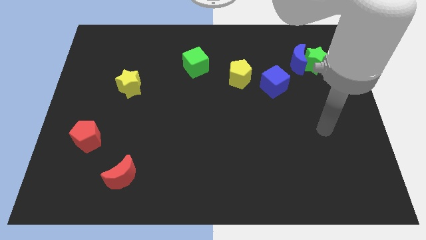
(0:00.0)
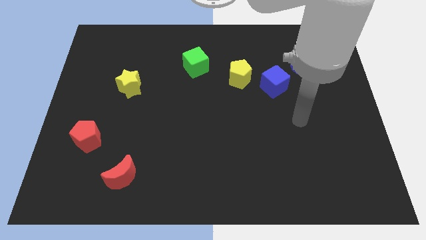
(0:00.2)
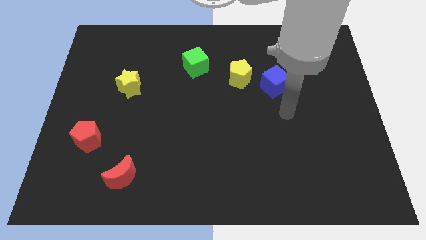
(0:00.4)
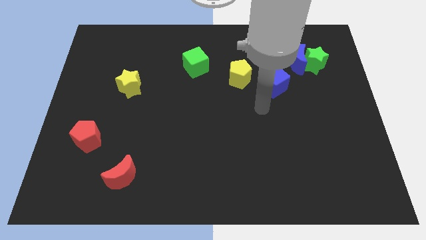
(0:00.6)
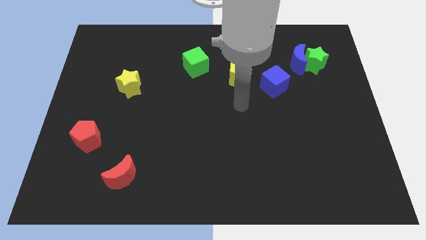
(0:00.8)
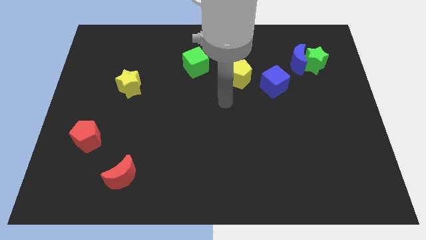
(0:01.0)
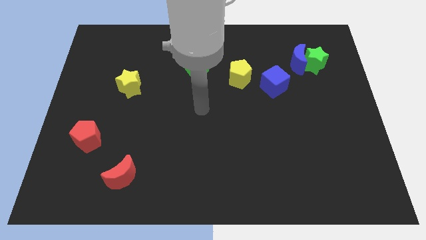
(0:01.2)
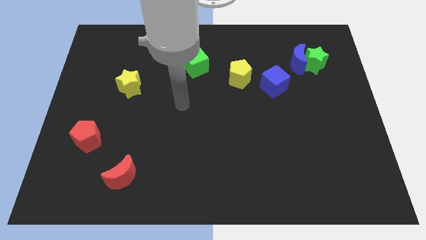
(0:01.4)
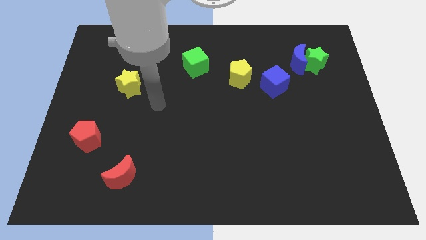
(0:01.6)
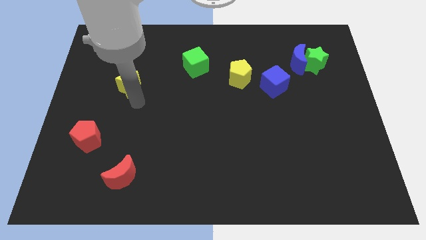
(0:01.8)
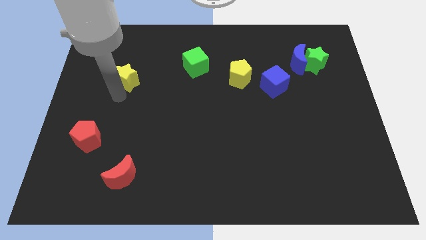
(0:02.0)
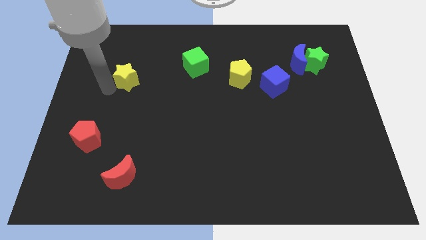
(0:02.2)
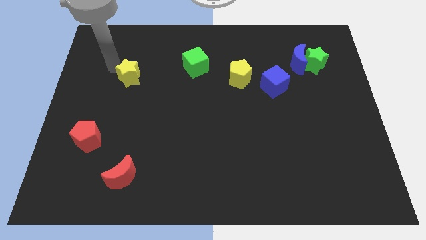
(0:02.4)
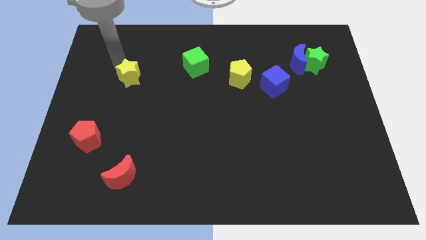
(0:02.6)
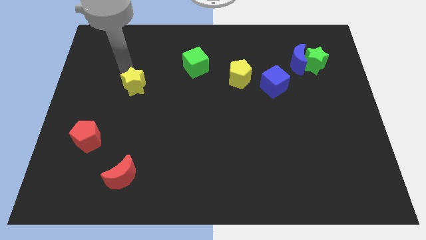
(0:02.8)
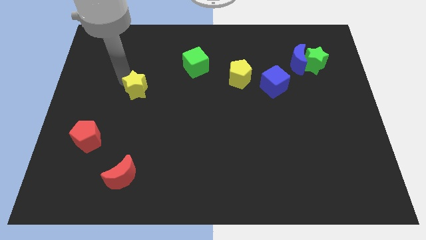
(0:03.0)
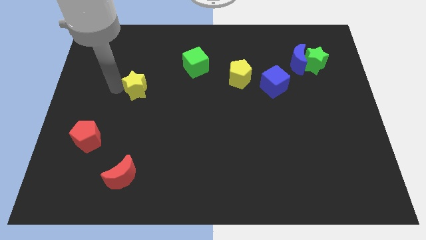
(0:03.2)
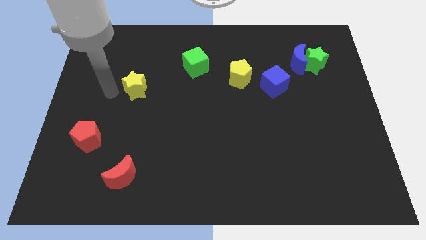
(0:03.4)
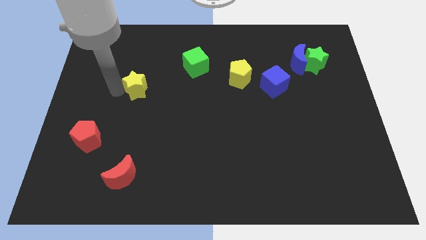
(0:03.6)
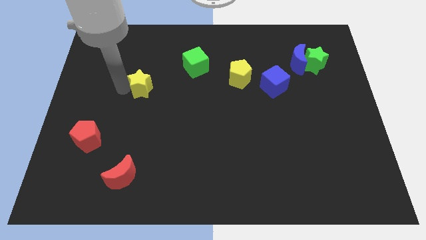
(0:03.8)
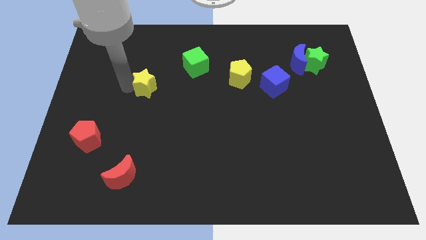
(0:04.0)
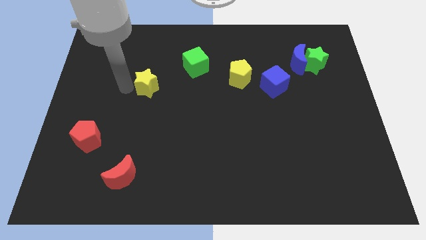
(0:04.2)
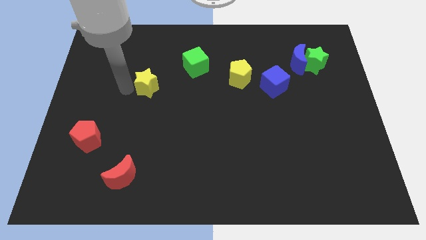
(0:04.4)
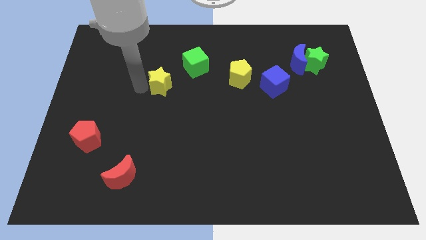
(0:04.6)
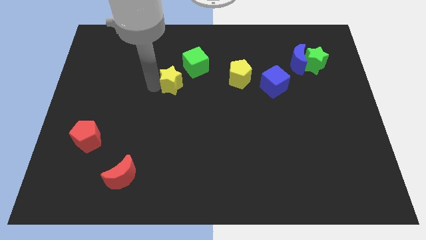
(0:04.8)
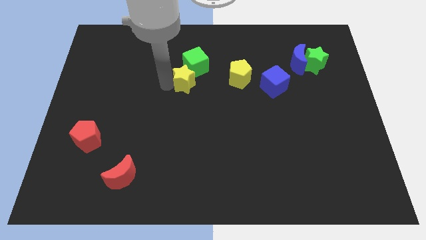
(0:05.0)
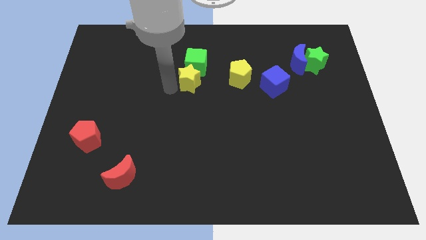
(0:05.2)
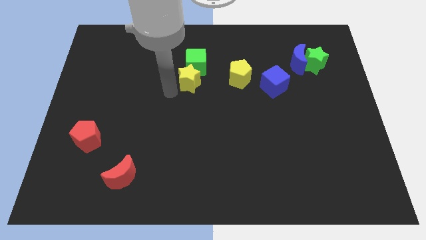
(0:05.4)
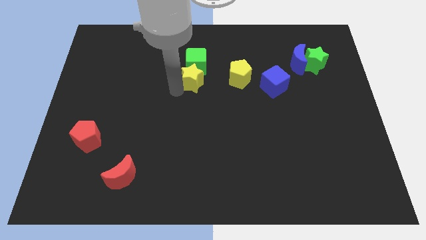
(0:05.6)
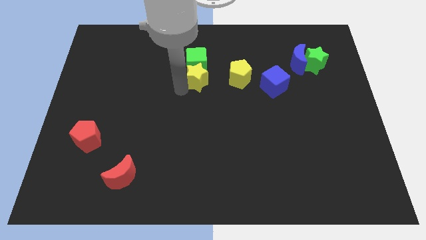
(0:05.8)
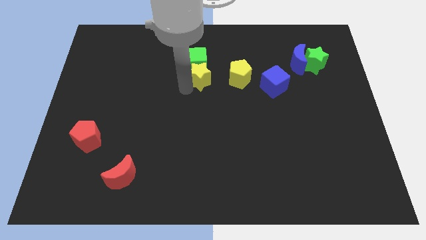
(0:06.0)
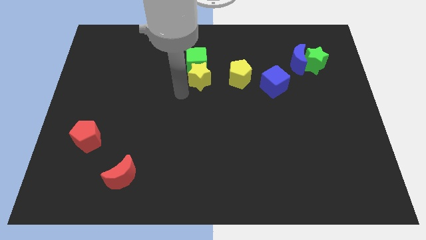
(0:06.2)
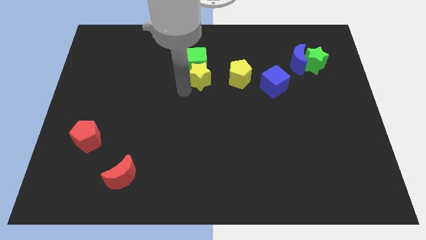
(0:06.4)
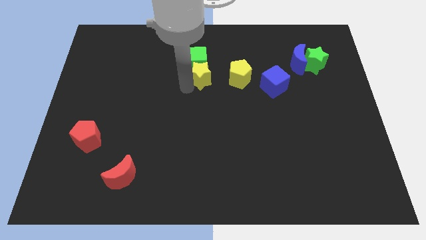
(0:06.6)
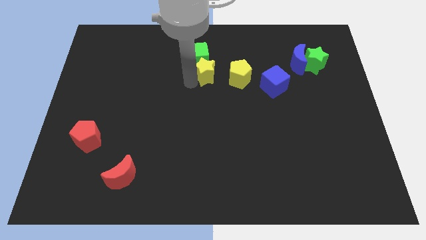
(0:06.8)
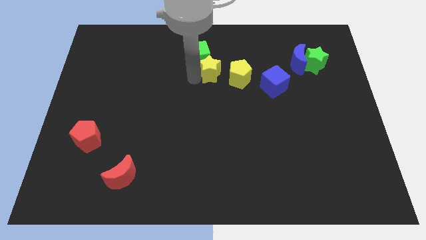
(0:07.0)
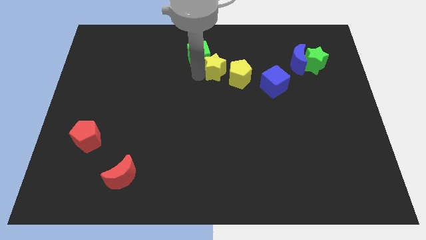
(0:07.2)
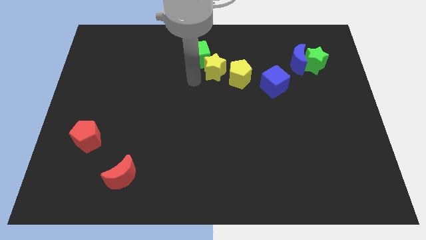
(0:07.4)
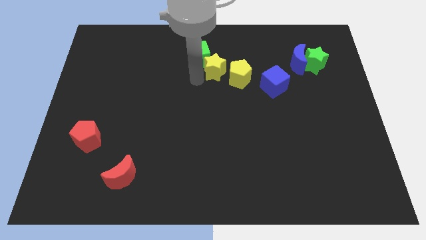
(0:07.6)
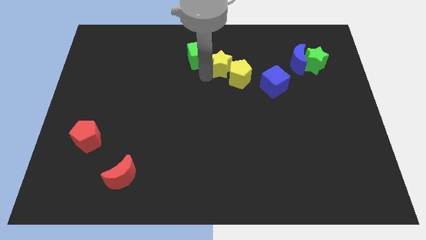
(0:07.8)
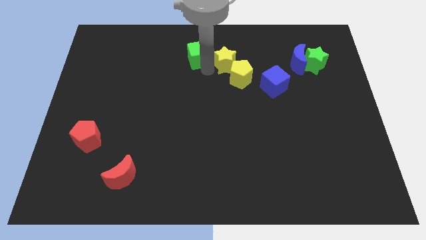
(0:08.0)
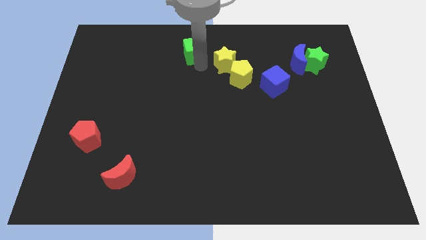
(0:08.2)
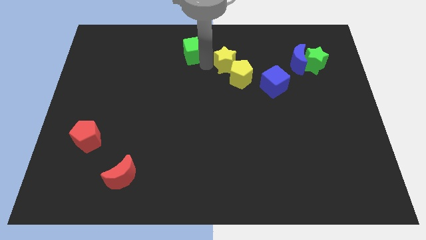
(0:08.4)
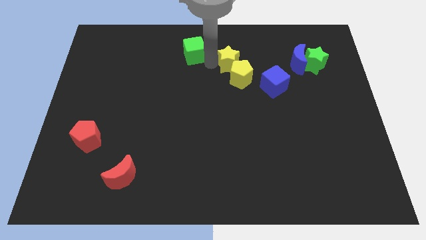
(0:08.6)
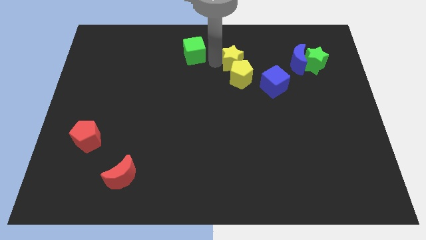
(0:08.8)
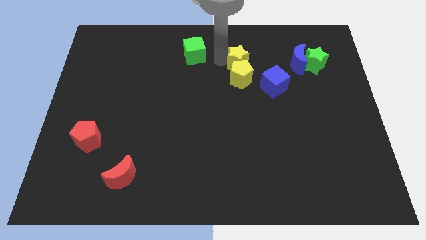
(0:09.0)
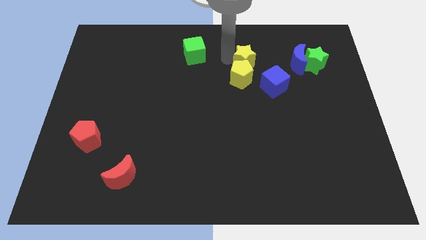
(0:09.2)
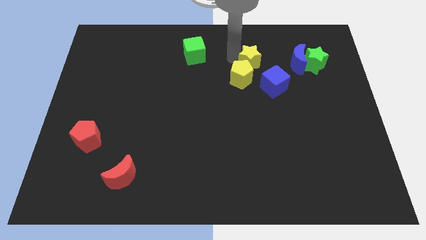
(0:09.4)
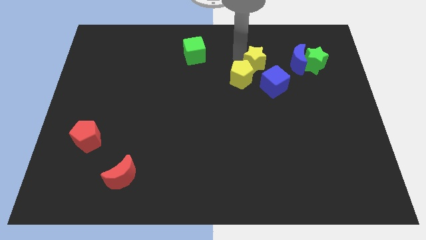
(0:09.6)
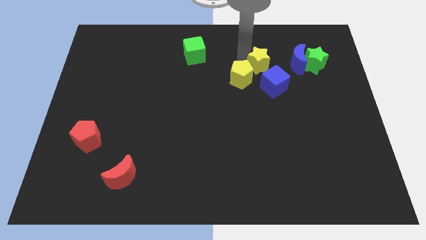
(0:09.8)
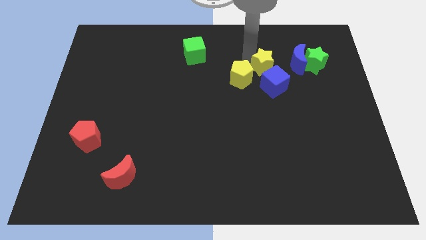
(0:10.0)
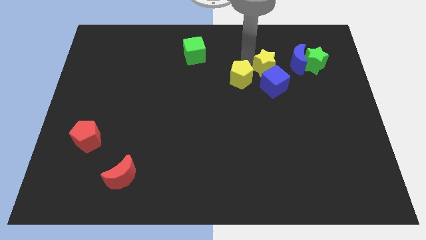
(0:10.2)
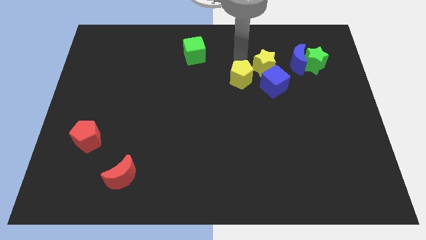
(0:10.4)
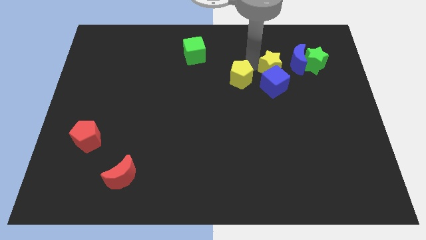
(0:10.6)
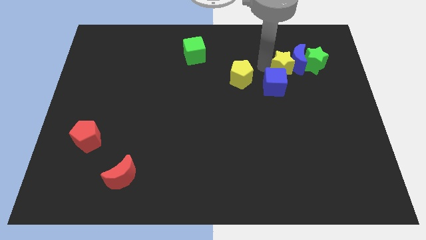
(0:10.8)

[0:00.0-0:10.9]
put the yellow star diagonally down and to the left of the green star

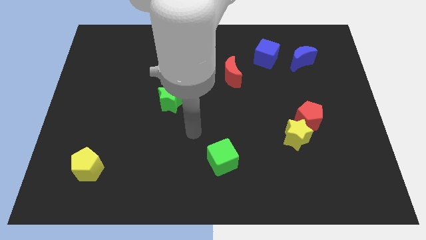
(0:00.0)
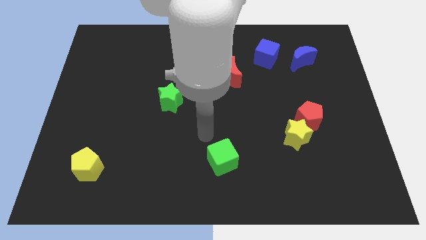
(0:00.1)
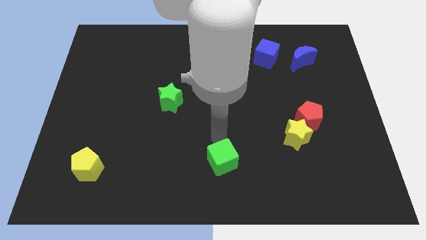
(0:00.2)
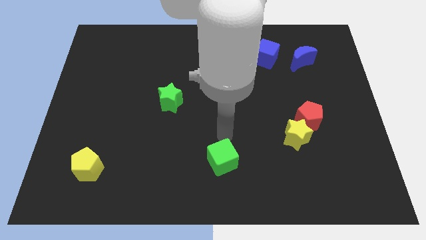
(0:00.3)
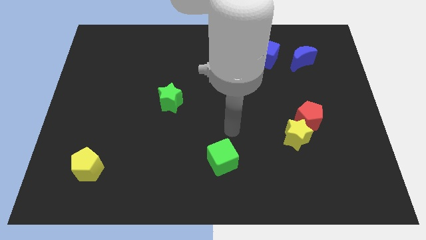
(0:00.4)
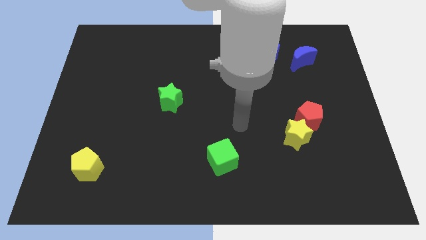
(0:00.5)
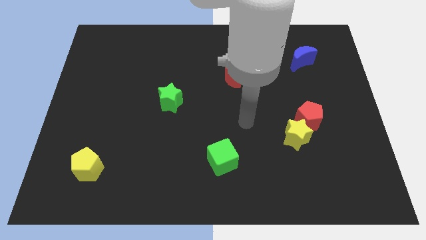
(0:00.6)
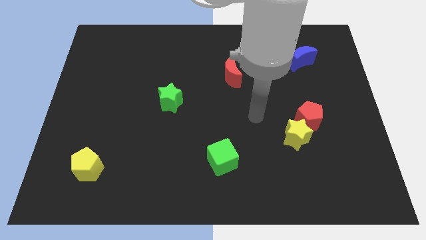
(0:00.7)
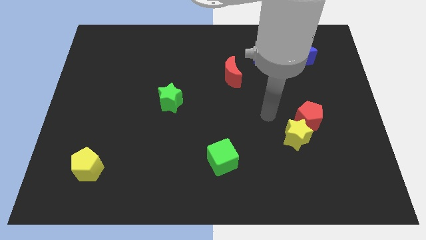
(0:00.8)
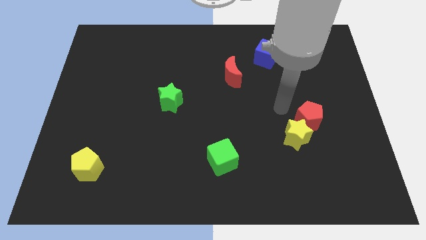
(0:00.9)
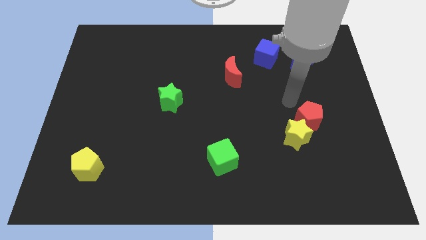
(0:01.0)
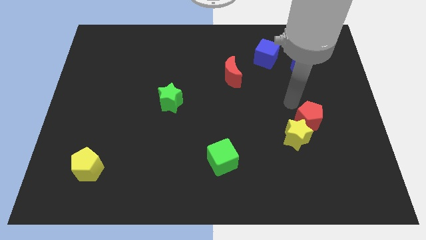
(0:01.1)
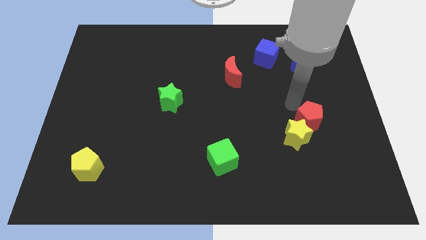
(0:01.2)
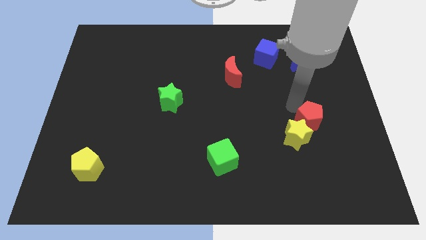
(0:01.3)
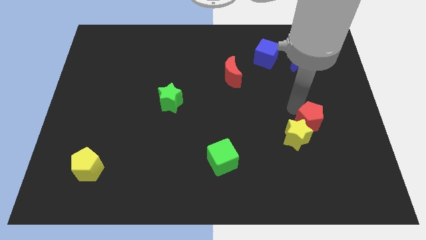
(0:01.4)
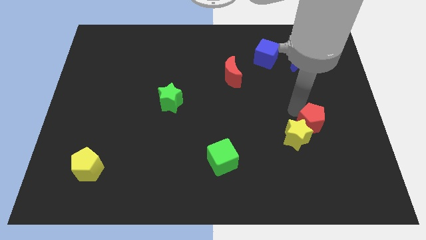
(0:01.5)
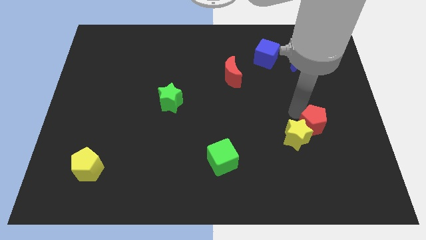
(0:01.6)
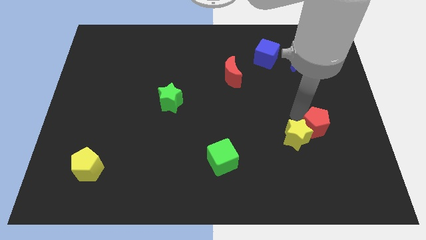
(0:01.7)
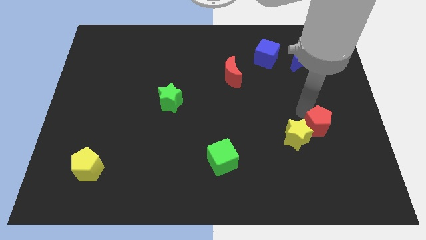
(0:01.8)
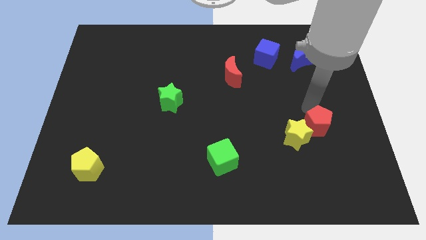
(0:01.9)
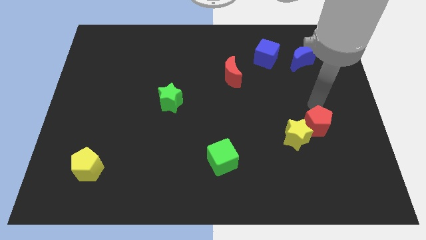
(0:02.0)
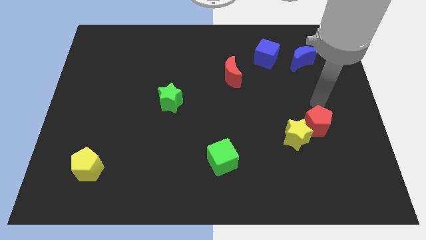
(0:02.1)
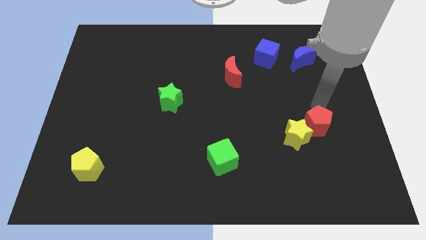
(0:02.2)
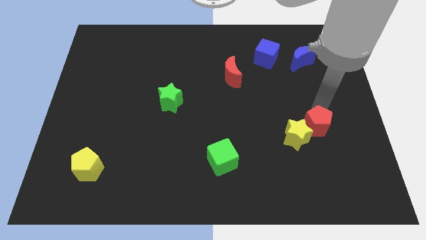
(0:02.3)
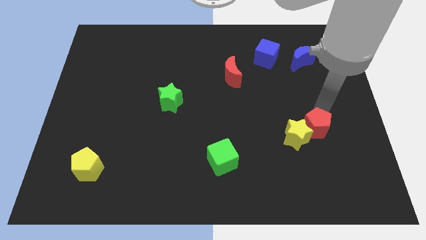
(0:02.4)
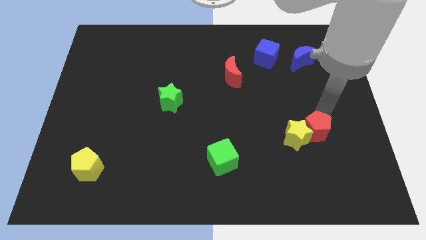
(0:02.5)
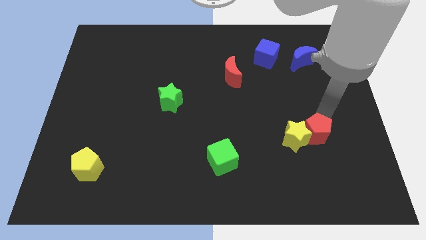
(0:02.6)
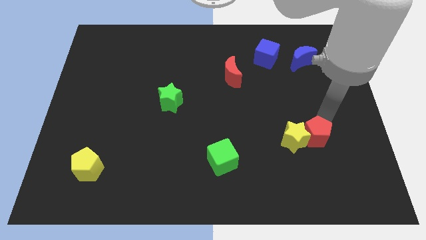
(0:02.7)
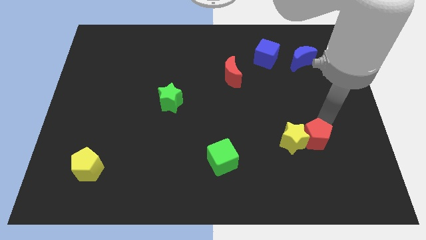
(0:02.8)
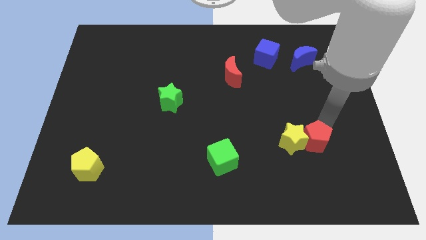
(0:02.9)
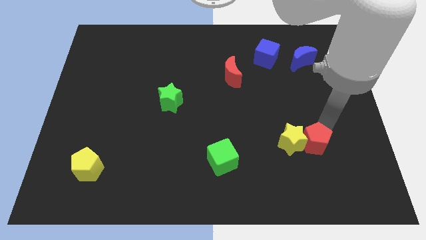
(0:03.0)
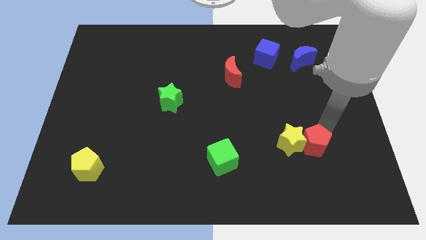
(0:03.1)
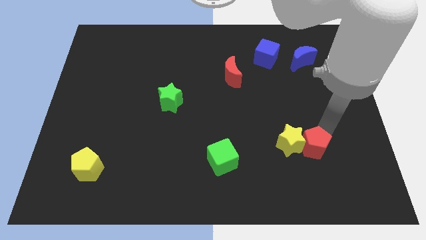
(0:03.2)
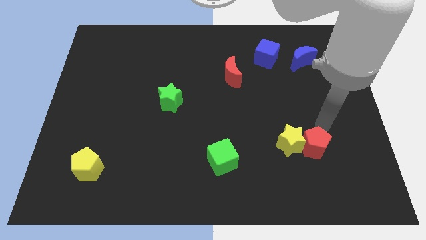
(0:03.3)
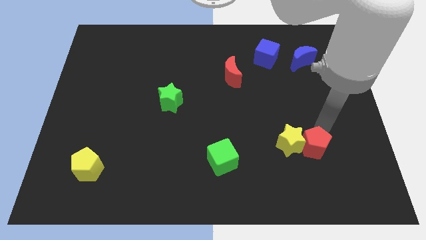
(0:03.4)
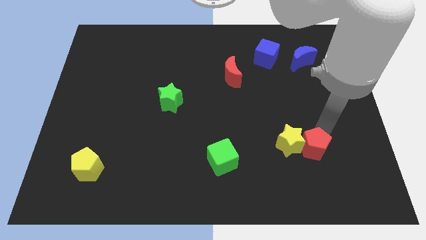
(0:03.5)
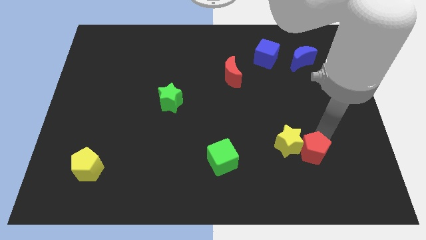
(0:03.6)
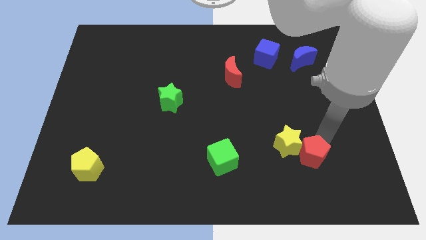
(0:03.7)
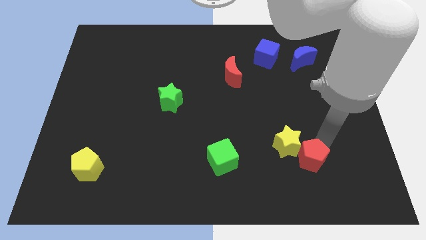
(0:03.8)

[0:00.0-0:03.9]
move the red pentagon to the bottom of the yellow star
